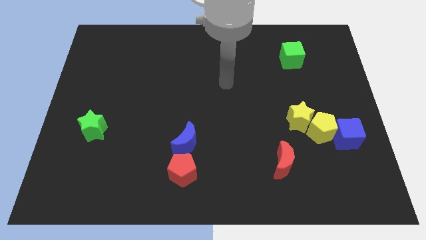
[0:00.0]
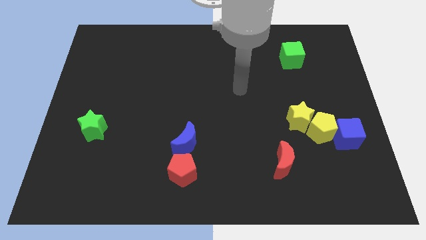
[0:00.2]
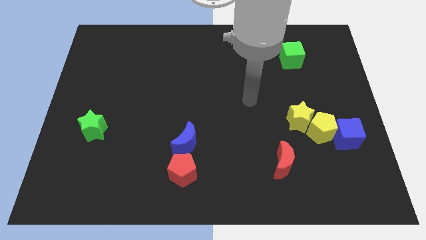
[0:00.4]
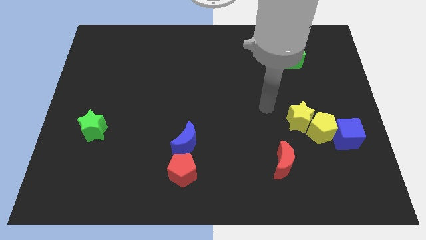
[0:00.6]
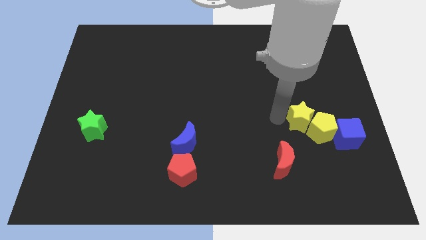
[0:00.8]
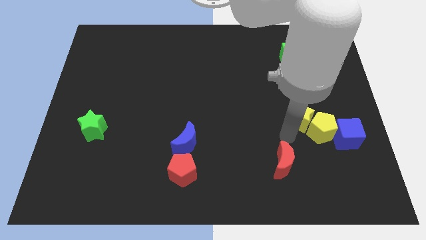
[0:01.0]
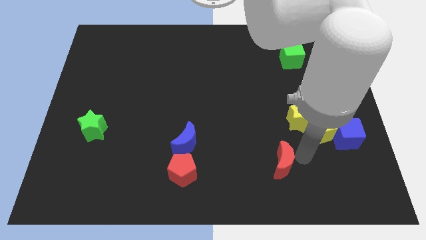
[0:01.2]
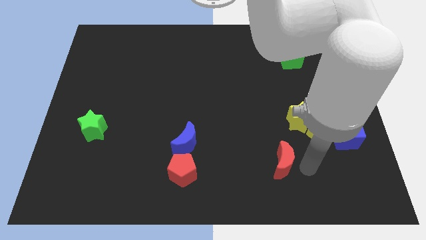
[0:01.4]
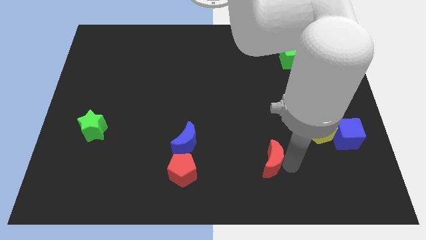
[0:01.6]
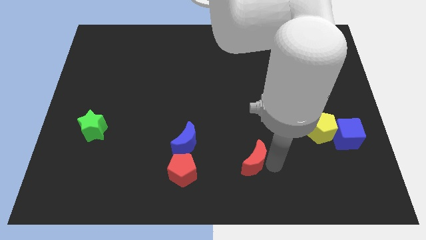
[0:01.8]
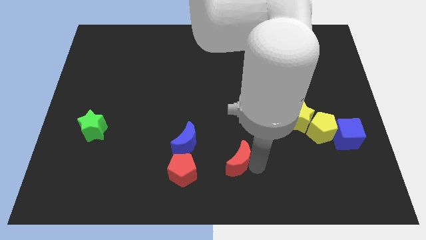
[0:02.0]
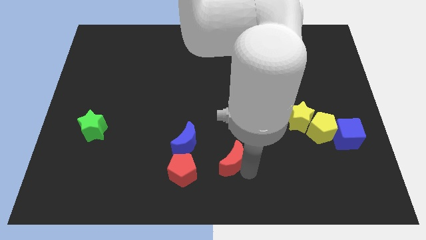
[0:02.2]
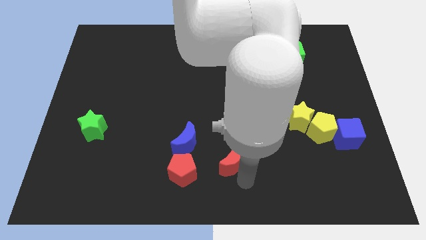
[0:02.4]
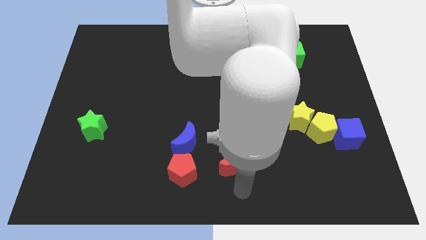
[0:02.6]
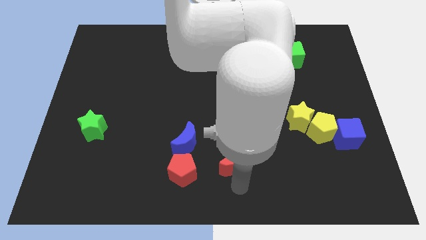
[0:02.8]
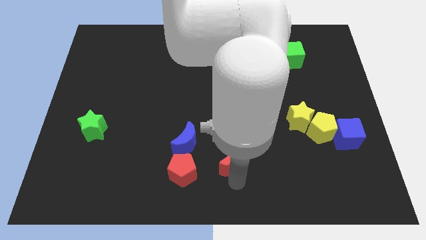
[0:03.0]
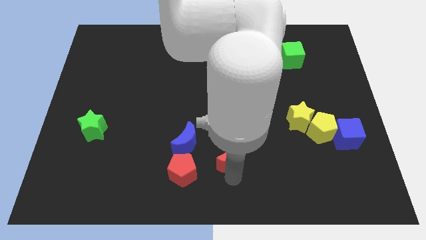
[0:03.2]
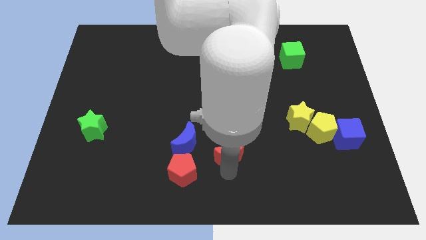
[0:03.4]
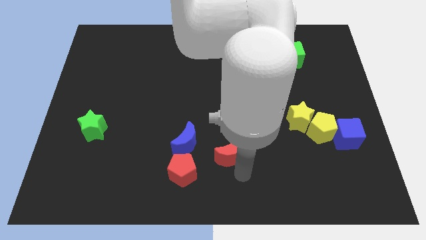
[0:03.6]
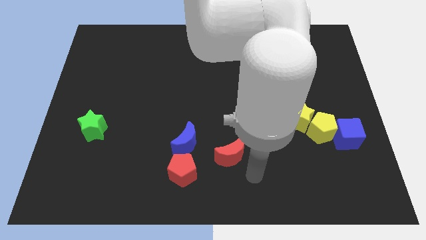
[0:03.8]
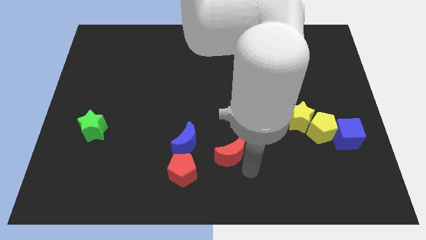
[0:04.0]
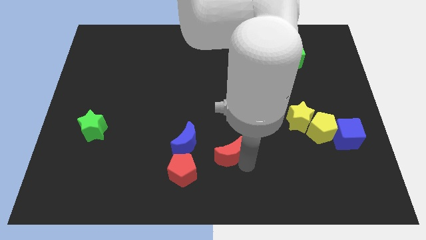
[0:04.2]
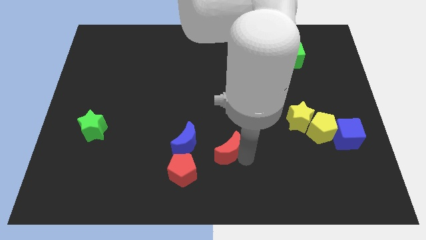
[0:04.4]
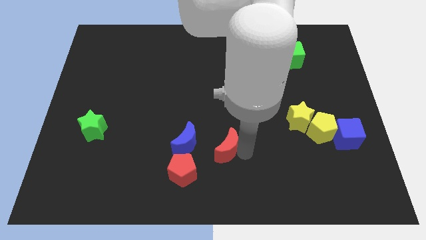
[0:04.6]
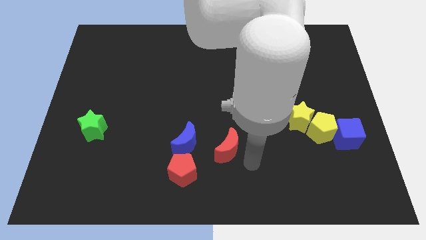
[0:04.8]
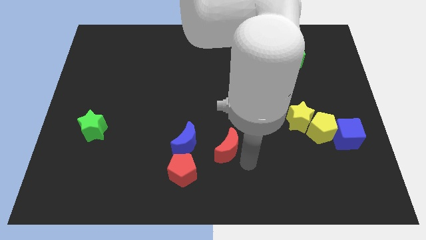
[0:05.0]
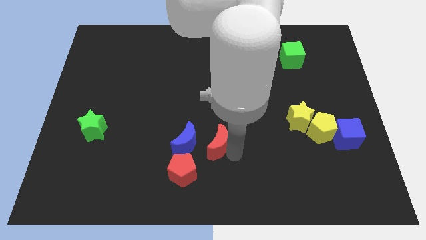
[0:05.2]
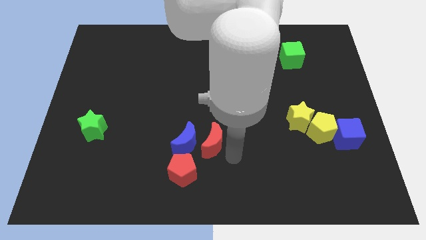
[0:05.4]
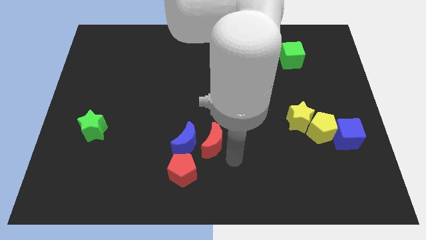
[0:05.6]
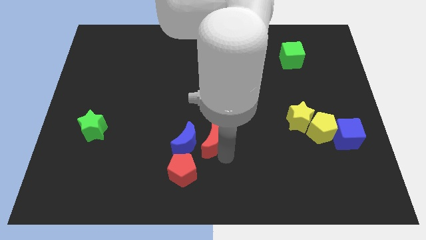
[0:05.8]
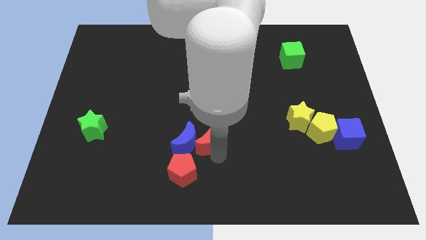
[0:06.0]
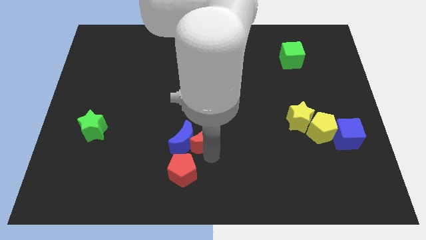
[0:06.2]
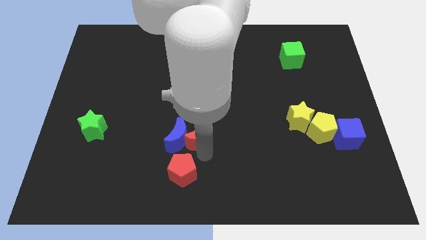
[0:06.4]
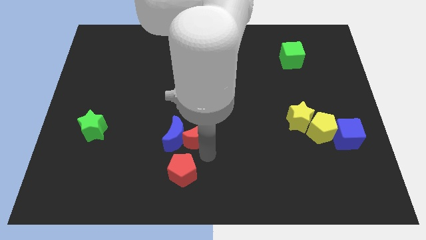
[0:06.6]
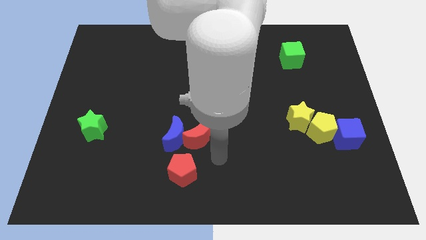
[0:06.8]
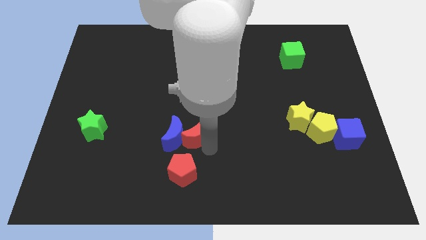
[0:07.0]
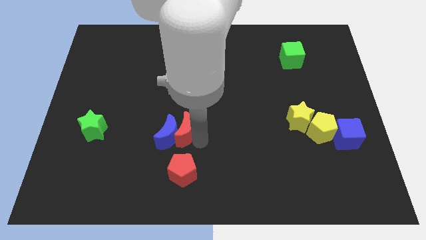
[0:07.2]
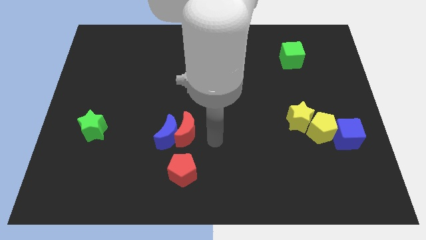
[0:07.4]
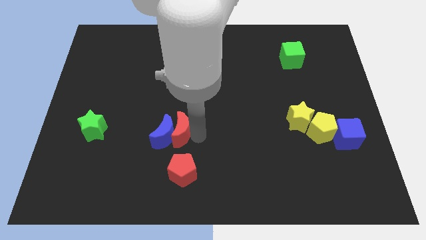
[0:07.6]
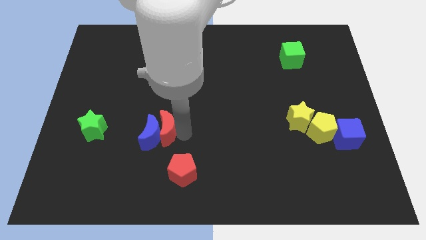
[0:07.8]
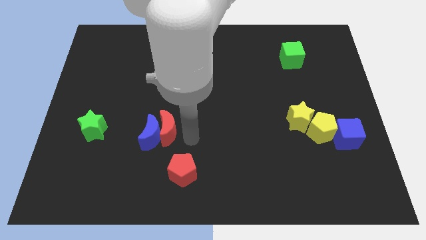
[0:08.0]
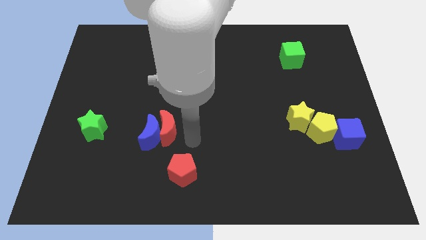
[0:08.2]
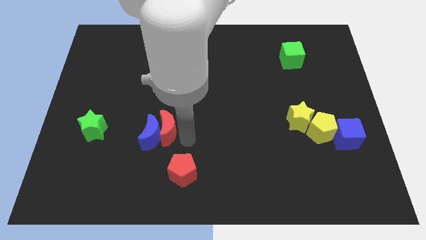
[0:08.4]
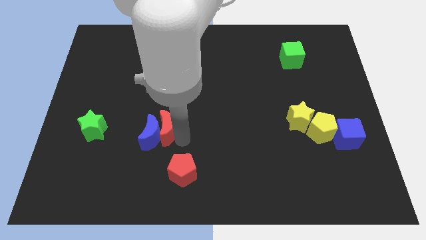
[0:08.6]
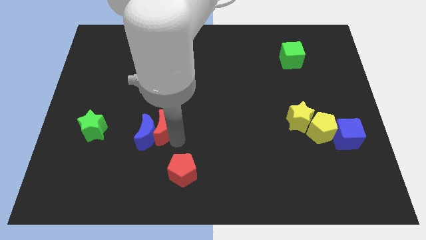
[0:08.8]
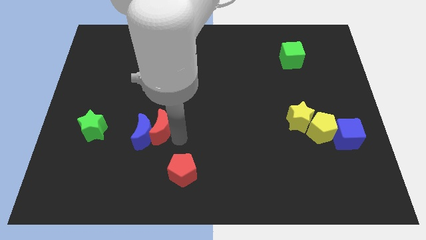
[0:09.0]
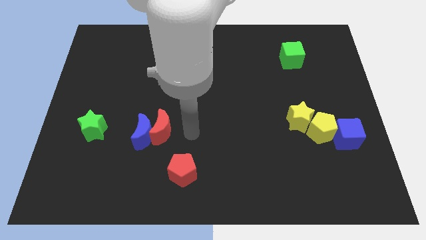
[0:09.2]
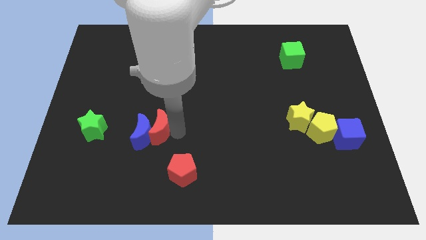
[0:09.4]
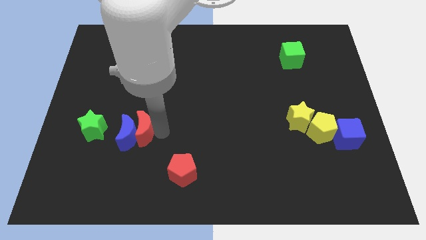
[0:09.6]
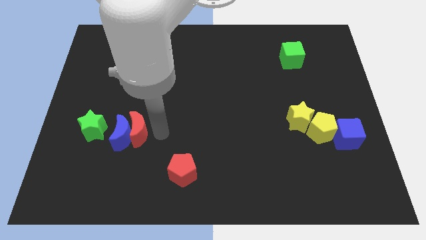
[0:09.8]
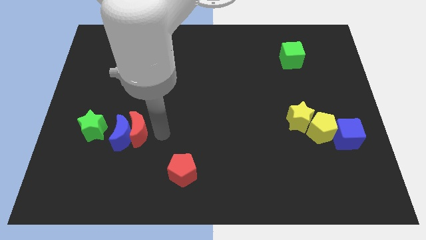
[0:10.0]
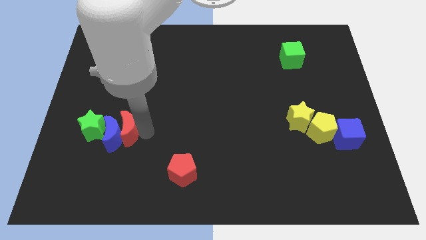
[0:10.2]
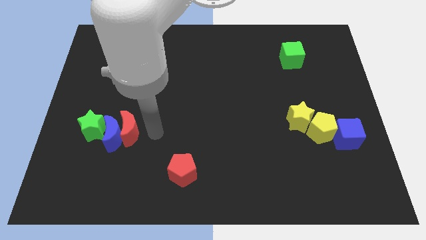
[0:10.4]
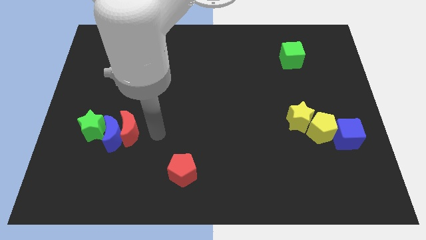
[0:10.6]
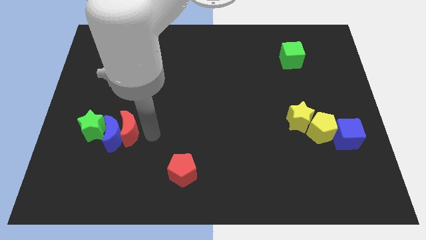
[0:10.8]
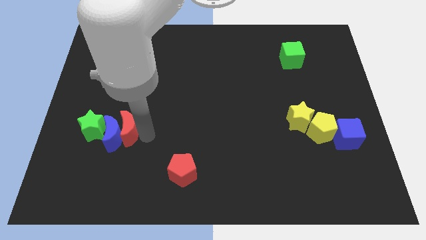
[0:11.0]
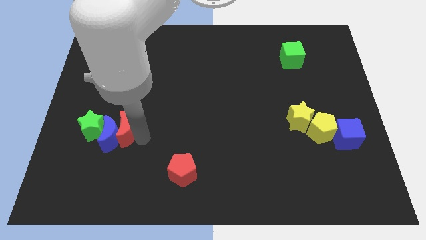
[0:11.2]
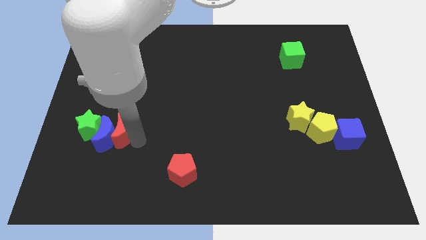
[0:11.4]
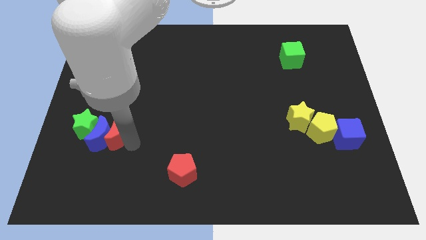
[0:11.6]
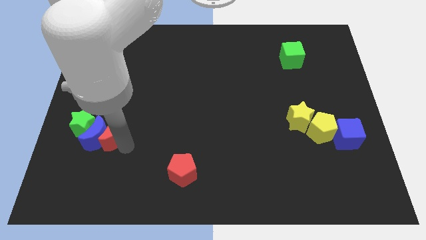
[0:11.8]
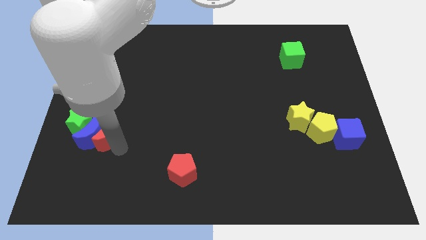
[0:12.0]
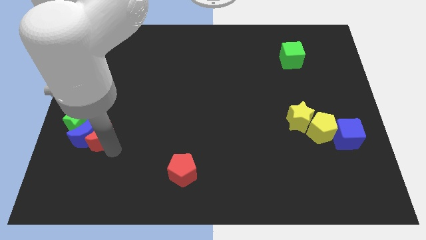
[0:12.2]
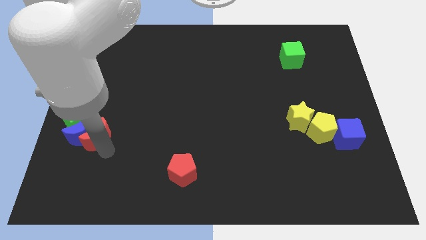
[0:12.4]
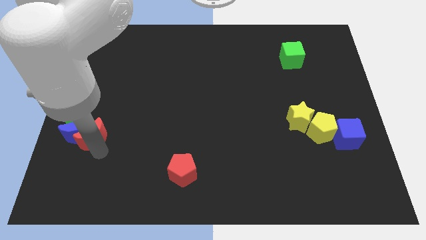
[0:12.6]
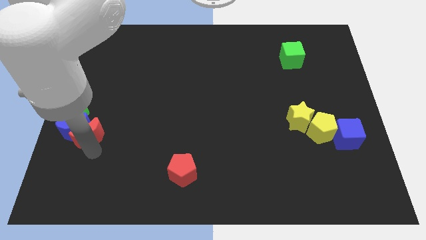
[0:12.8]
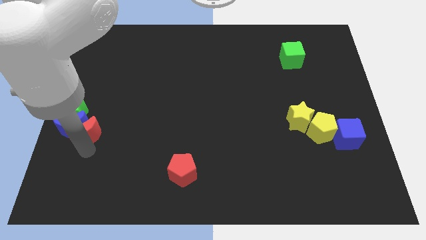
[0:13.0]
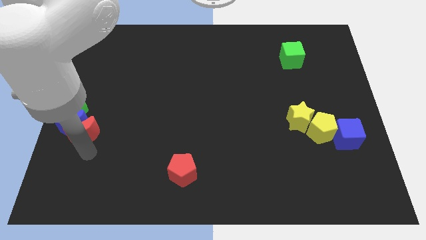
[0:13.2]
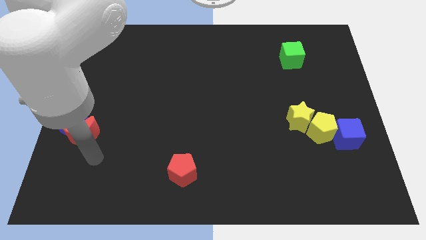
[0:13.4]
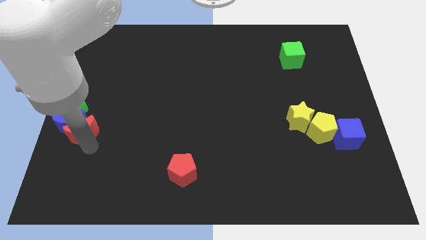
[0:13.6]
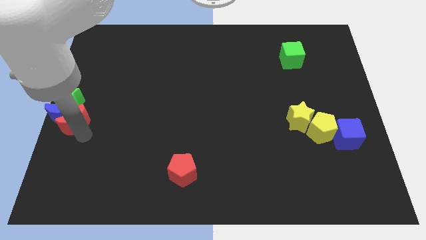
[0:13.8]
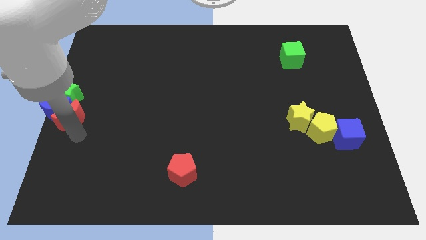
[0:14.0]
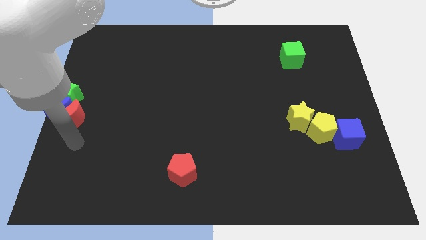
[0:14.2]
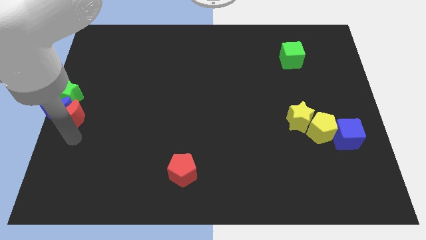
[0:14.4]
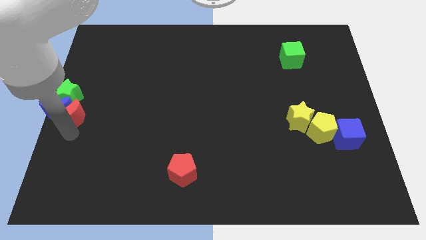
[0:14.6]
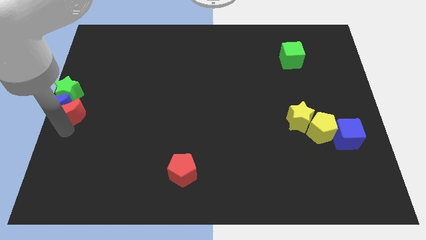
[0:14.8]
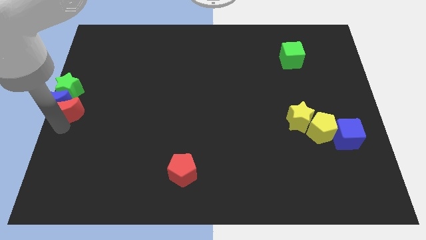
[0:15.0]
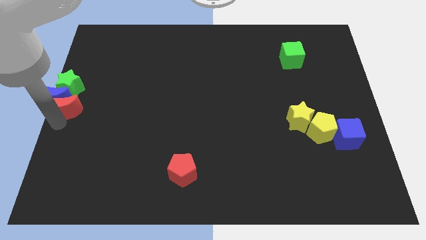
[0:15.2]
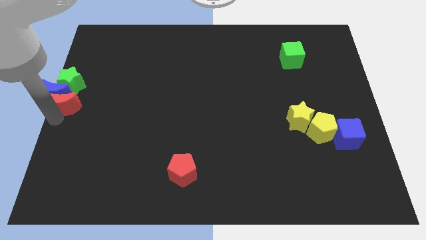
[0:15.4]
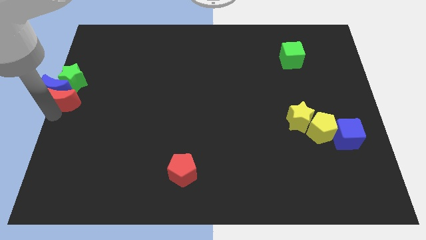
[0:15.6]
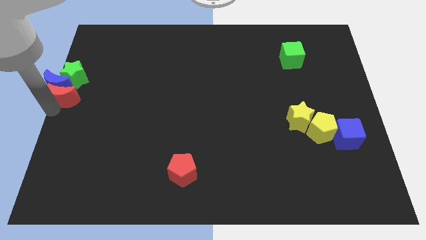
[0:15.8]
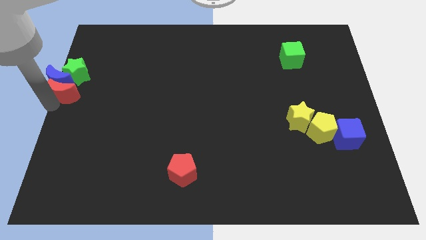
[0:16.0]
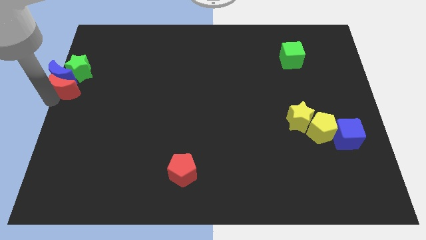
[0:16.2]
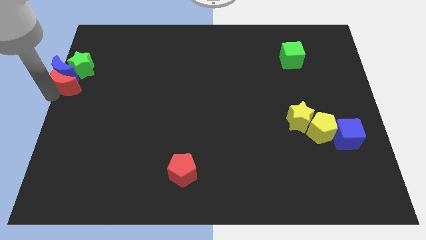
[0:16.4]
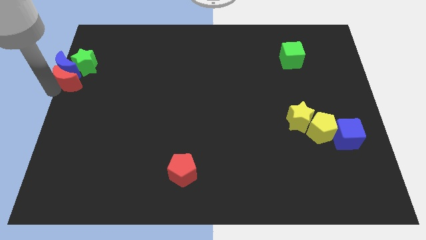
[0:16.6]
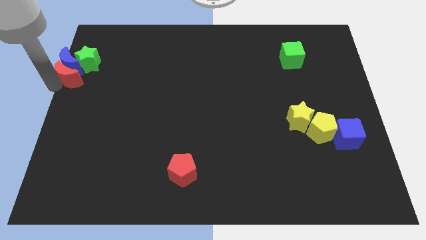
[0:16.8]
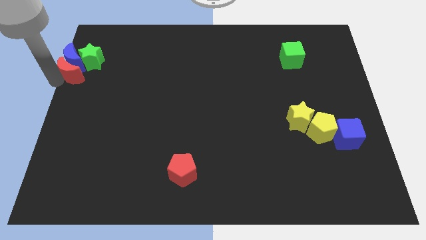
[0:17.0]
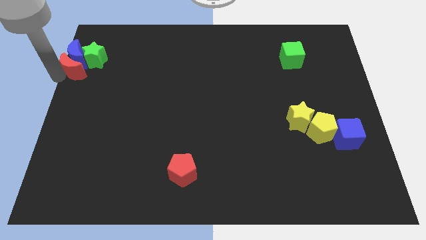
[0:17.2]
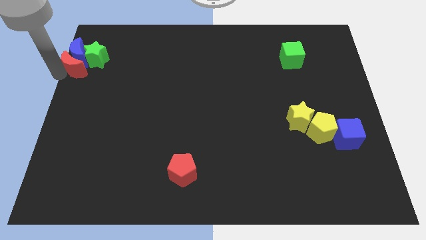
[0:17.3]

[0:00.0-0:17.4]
put the red moon towards the green star
